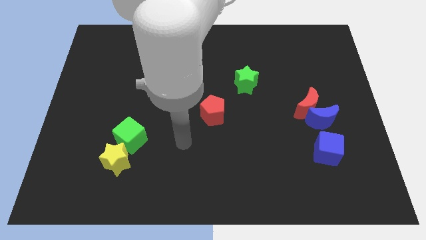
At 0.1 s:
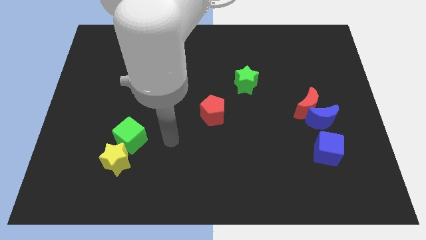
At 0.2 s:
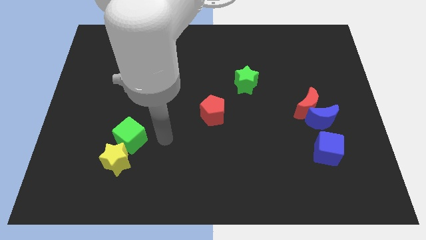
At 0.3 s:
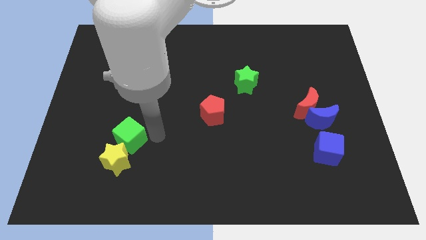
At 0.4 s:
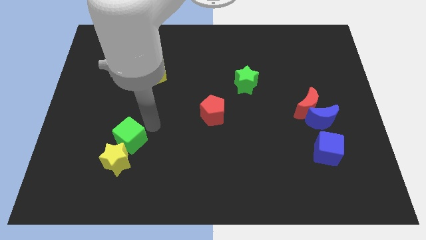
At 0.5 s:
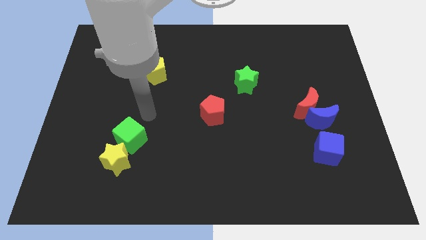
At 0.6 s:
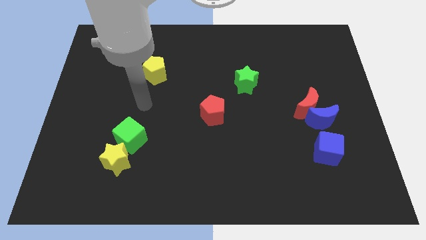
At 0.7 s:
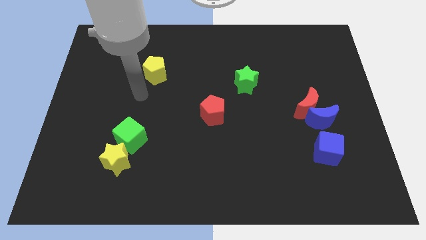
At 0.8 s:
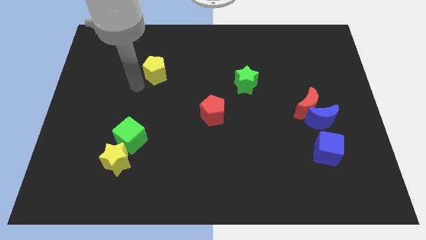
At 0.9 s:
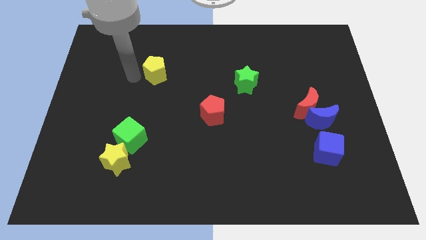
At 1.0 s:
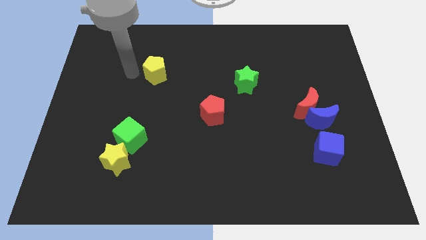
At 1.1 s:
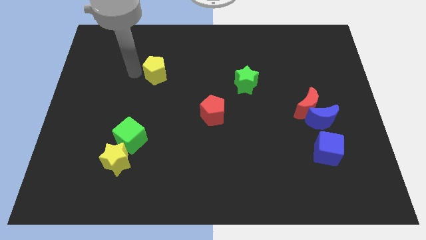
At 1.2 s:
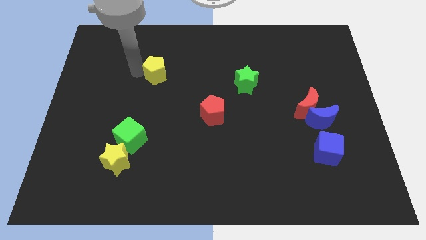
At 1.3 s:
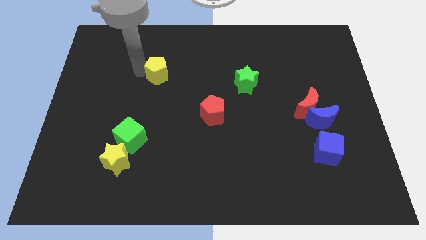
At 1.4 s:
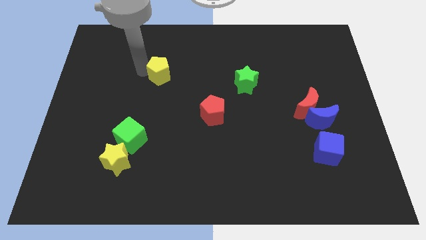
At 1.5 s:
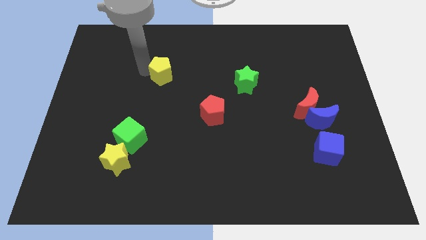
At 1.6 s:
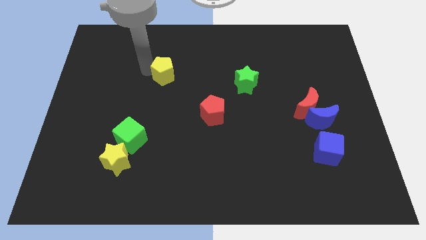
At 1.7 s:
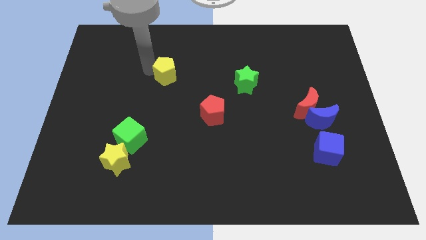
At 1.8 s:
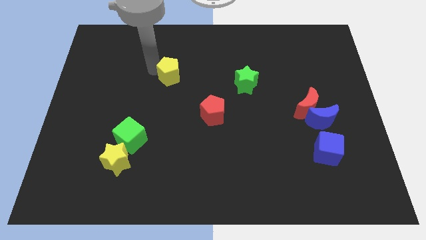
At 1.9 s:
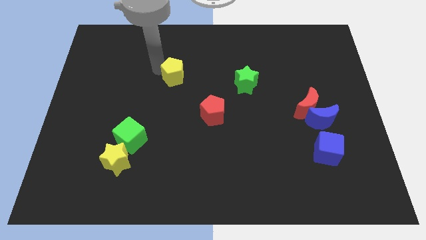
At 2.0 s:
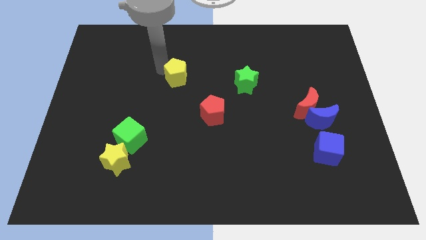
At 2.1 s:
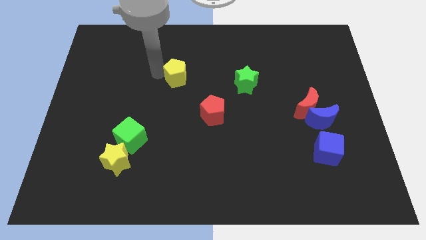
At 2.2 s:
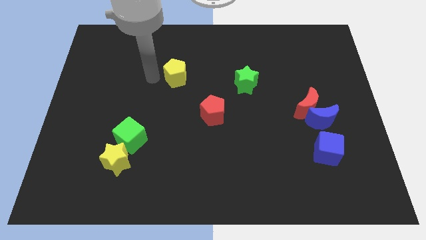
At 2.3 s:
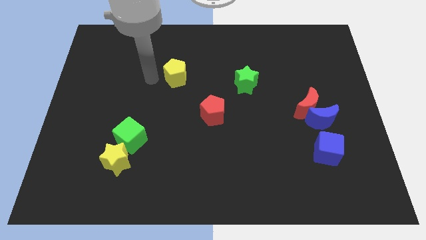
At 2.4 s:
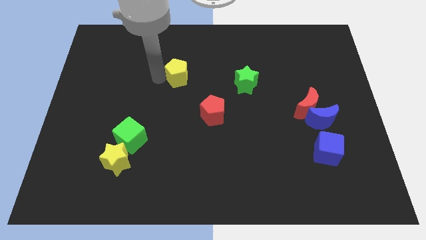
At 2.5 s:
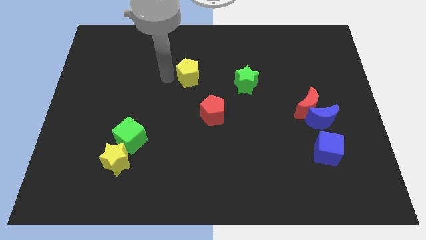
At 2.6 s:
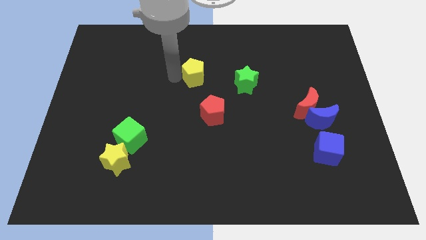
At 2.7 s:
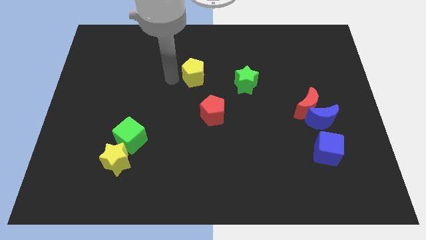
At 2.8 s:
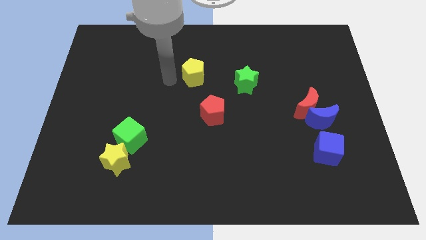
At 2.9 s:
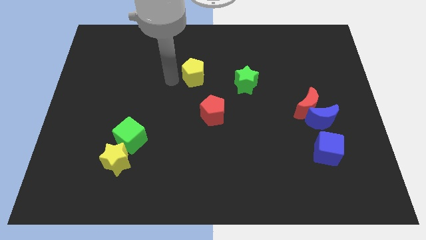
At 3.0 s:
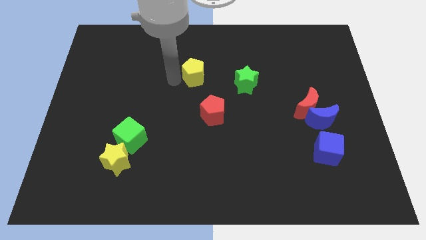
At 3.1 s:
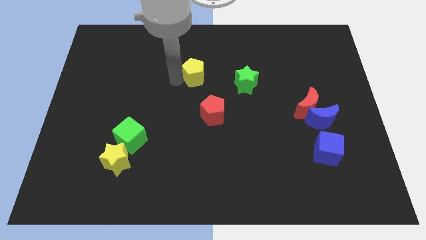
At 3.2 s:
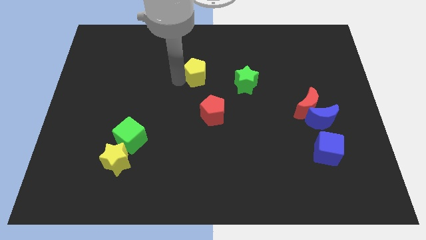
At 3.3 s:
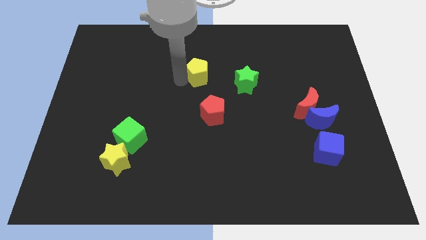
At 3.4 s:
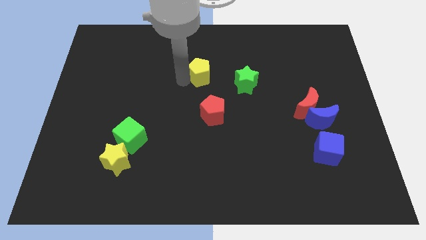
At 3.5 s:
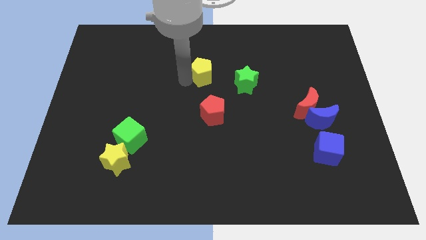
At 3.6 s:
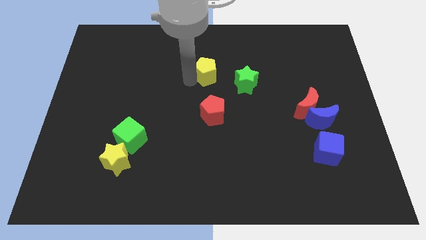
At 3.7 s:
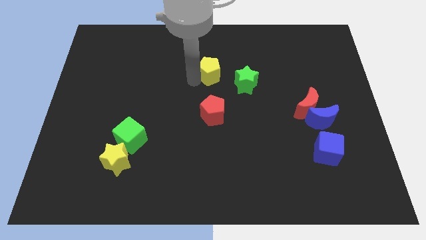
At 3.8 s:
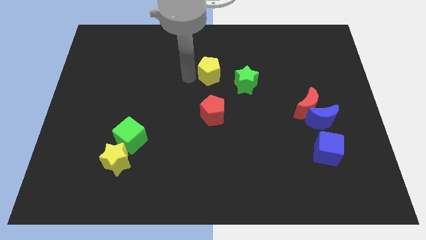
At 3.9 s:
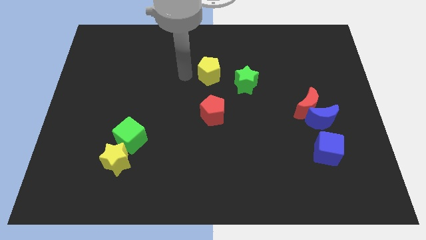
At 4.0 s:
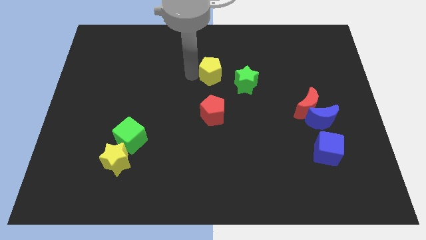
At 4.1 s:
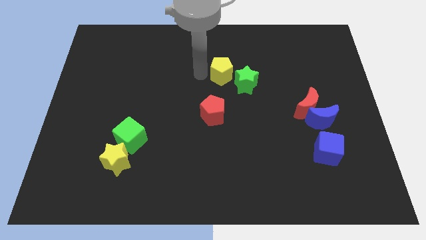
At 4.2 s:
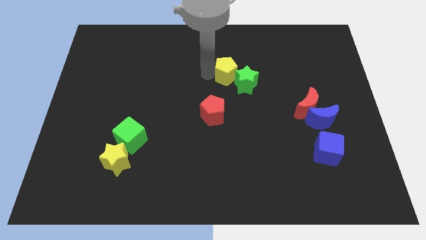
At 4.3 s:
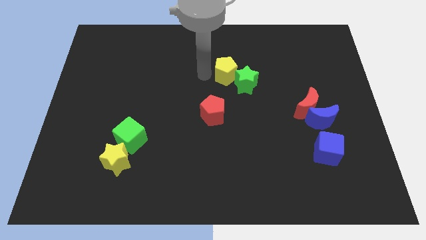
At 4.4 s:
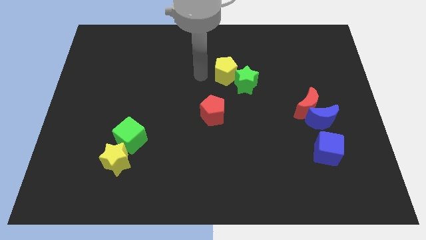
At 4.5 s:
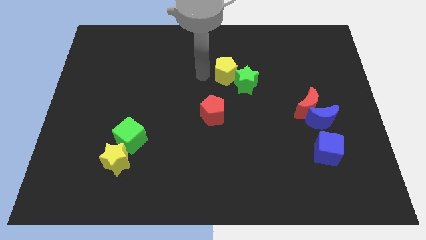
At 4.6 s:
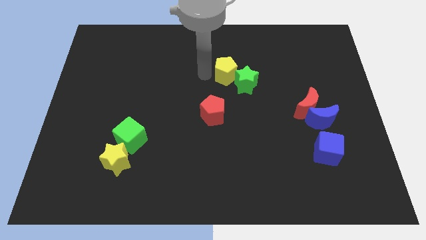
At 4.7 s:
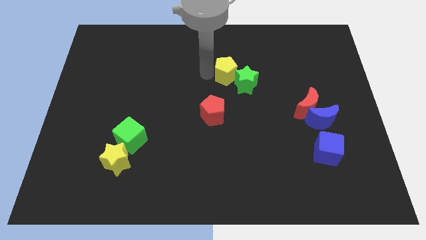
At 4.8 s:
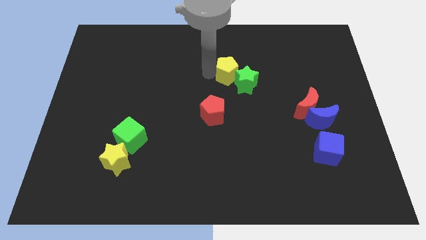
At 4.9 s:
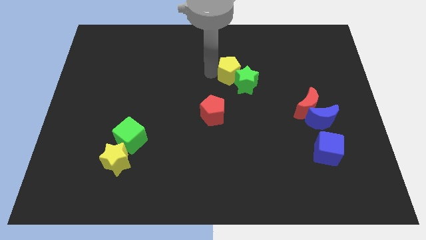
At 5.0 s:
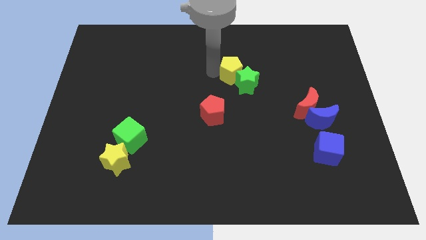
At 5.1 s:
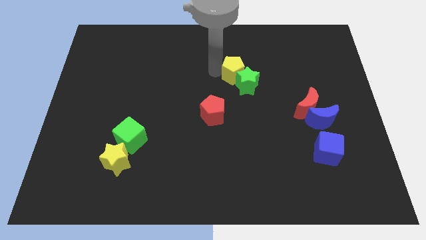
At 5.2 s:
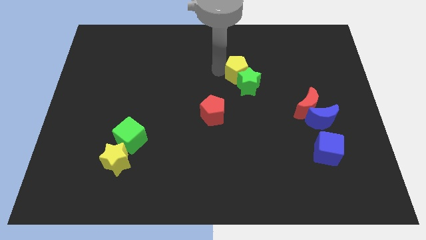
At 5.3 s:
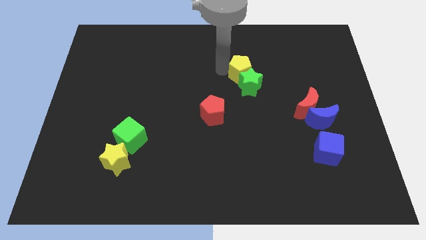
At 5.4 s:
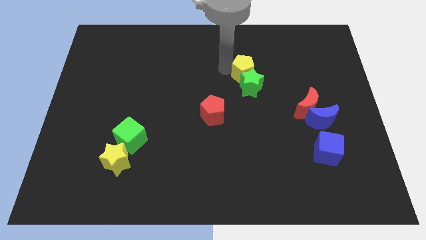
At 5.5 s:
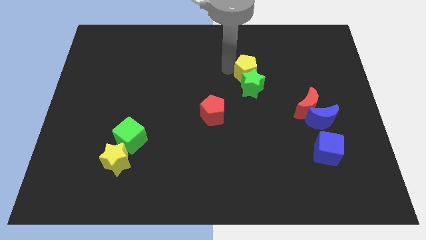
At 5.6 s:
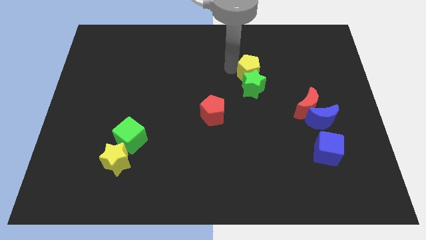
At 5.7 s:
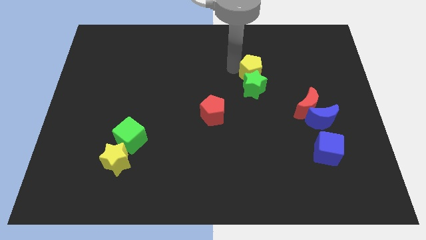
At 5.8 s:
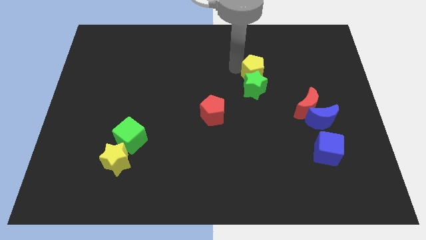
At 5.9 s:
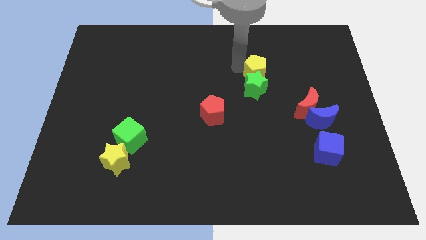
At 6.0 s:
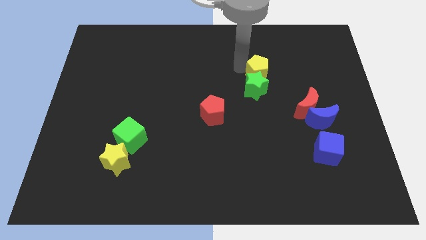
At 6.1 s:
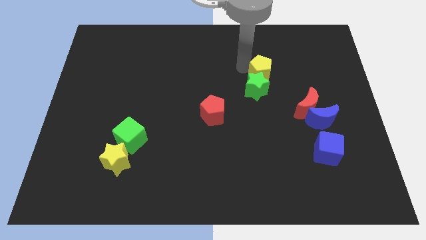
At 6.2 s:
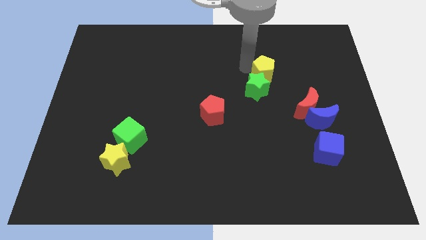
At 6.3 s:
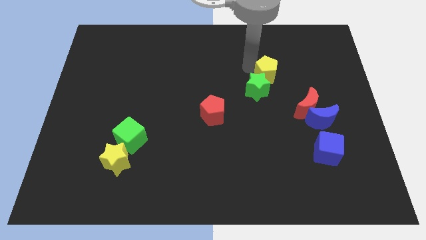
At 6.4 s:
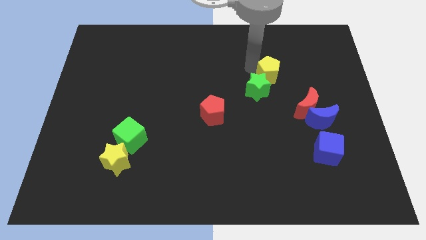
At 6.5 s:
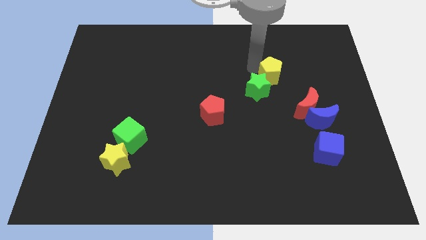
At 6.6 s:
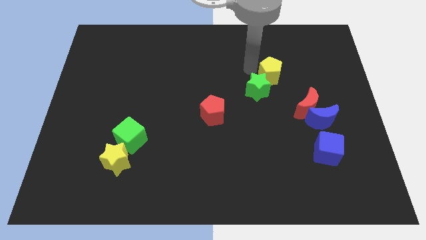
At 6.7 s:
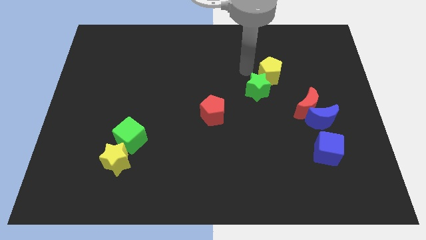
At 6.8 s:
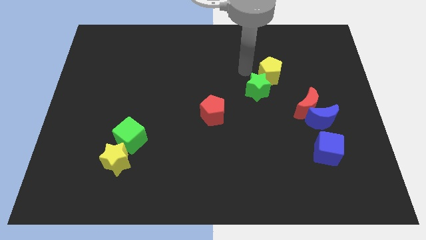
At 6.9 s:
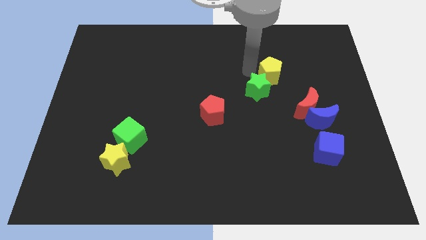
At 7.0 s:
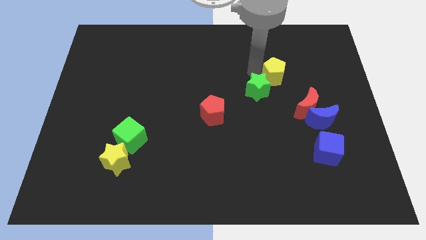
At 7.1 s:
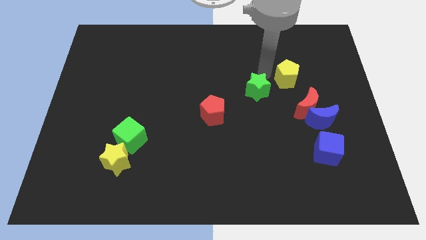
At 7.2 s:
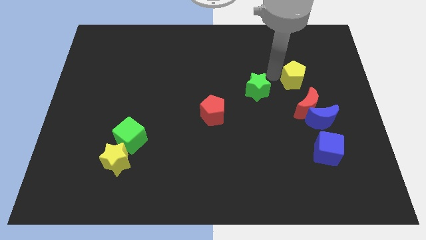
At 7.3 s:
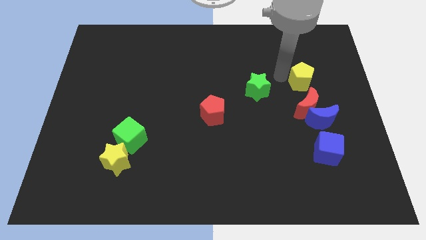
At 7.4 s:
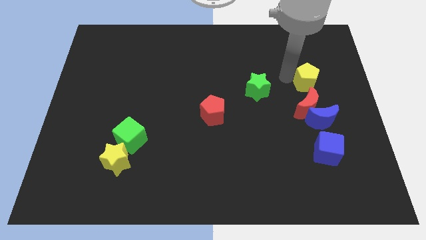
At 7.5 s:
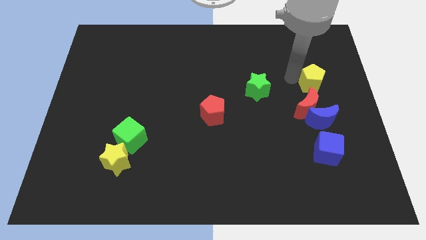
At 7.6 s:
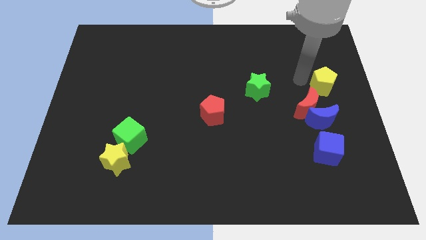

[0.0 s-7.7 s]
slide the yellow pentagon to the right side
